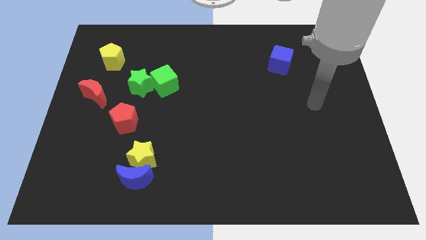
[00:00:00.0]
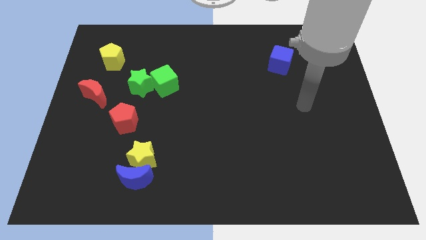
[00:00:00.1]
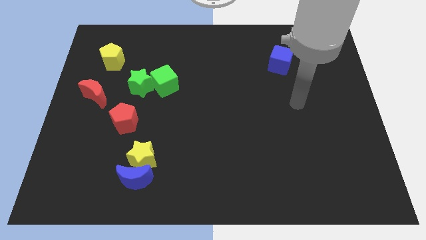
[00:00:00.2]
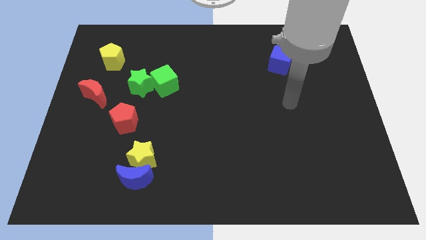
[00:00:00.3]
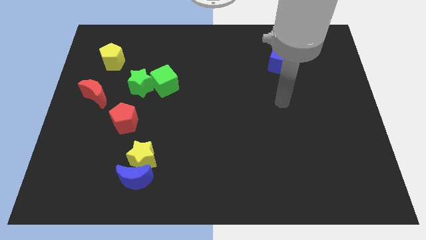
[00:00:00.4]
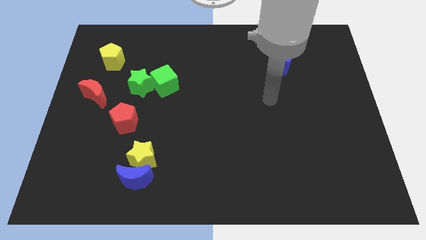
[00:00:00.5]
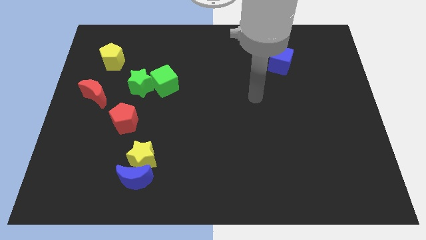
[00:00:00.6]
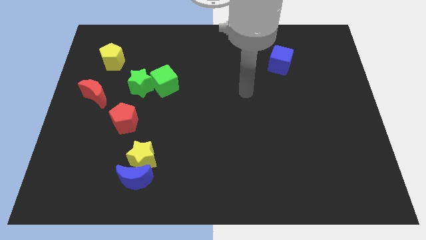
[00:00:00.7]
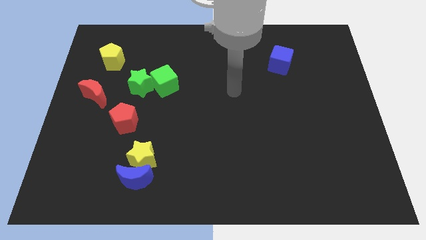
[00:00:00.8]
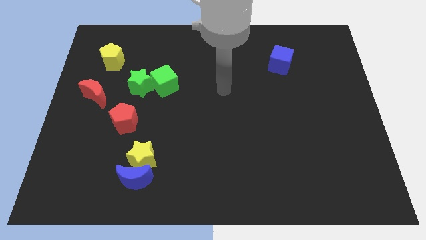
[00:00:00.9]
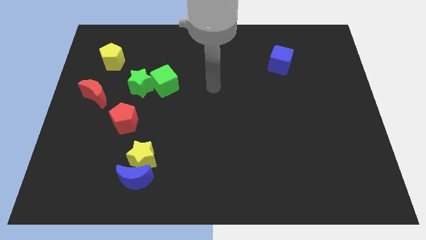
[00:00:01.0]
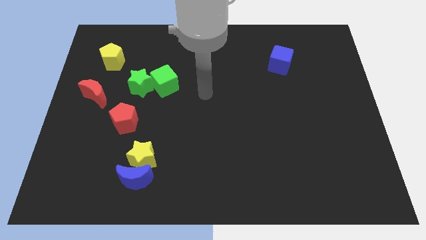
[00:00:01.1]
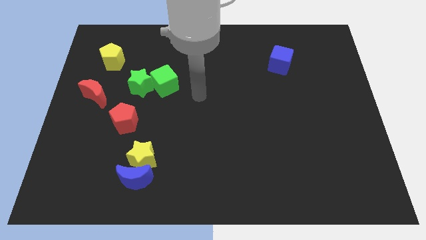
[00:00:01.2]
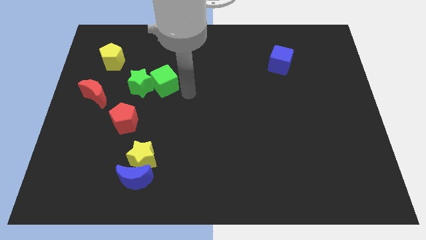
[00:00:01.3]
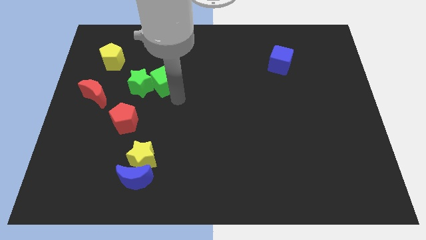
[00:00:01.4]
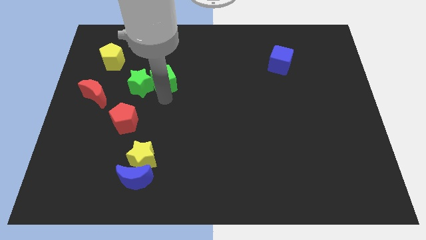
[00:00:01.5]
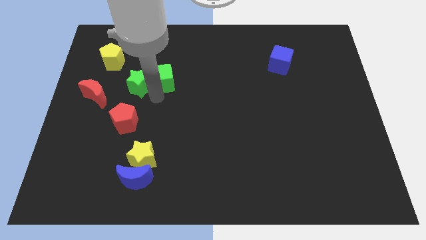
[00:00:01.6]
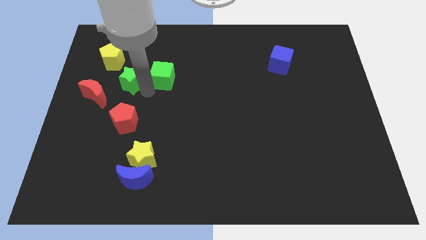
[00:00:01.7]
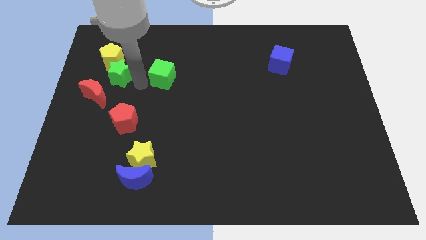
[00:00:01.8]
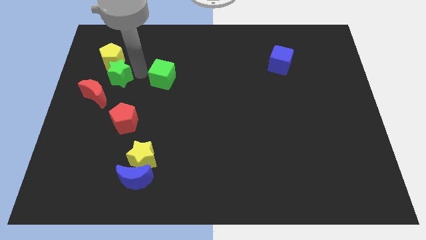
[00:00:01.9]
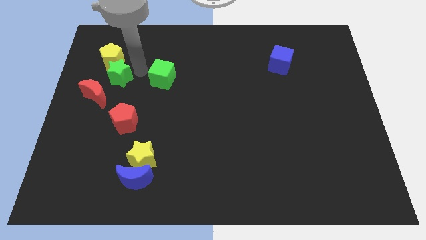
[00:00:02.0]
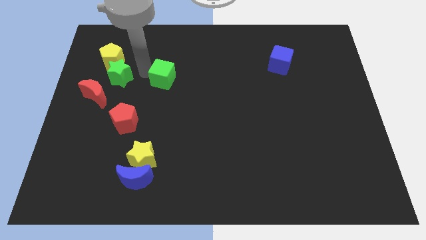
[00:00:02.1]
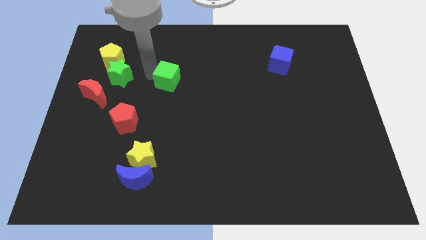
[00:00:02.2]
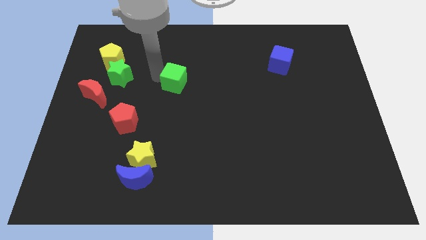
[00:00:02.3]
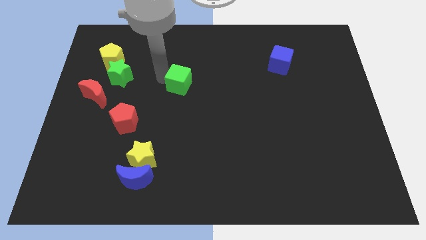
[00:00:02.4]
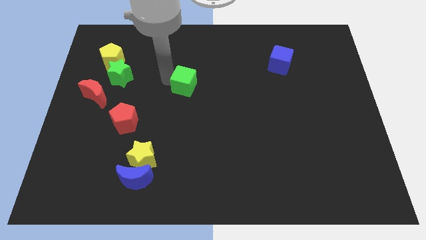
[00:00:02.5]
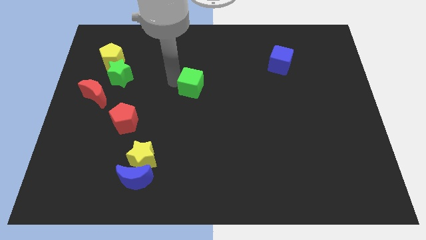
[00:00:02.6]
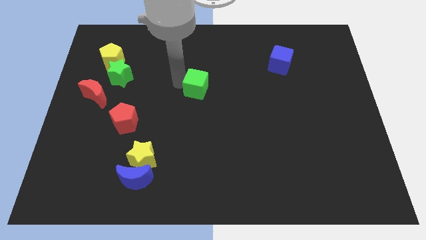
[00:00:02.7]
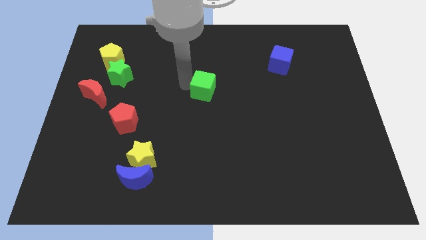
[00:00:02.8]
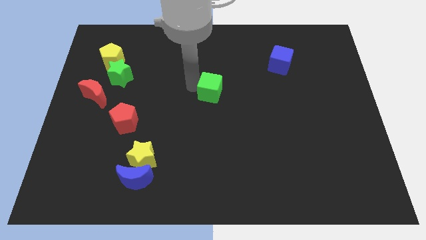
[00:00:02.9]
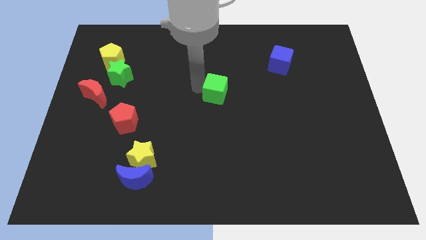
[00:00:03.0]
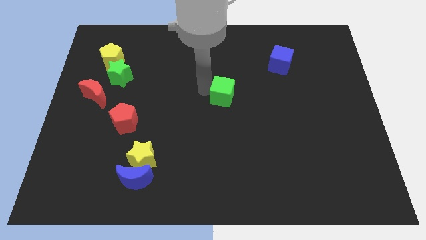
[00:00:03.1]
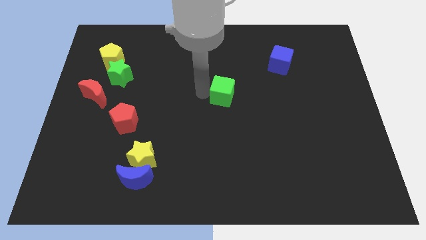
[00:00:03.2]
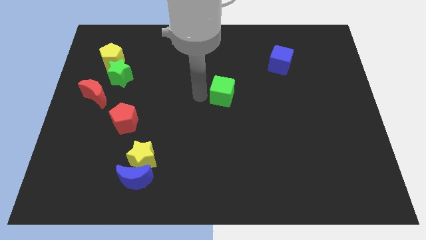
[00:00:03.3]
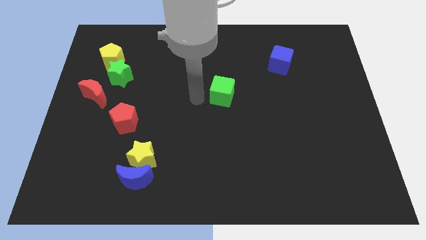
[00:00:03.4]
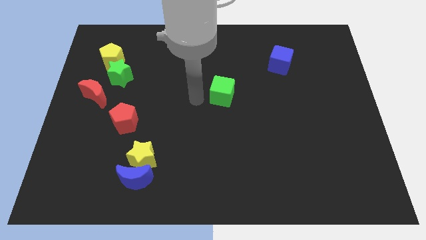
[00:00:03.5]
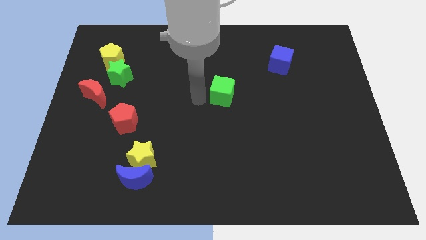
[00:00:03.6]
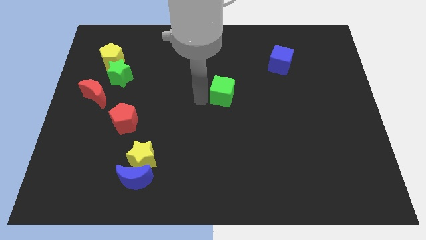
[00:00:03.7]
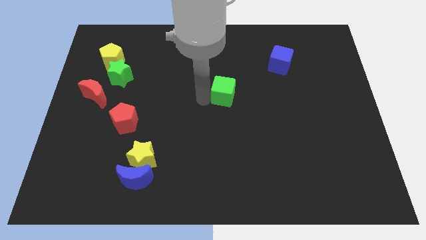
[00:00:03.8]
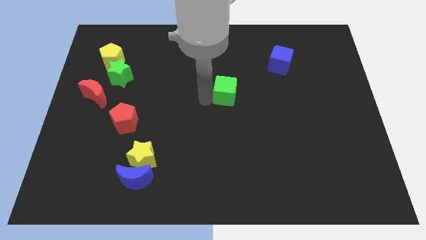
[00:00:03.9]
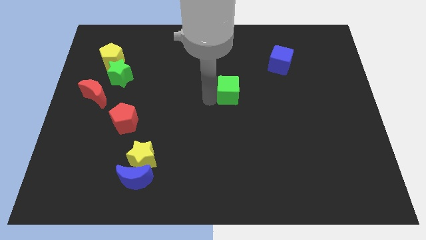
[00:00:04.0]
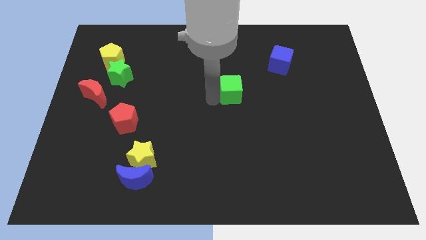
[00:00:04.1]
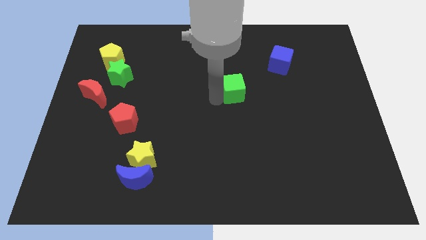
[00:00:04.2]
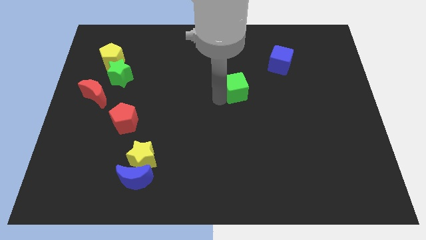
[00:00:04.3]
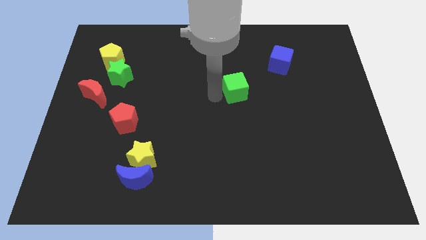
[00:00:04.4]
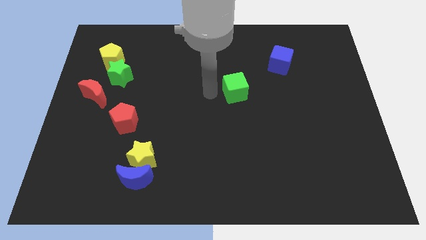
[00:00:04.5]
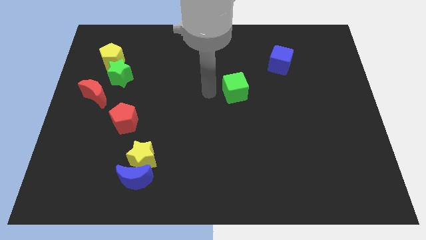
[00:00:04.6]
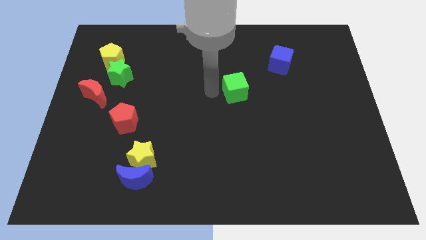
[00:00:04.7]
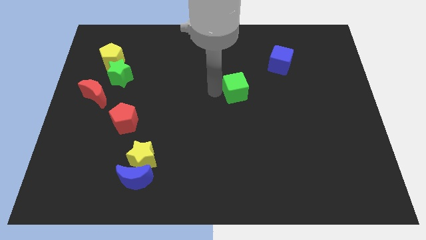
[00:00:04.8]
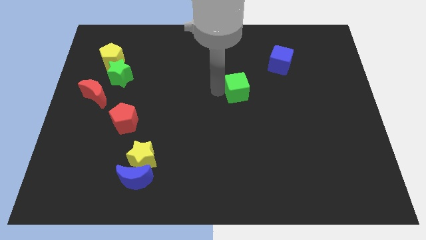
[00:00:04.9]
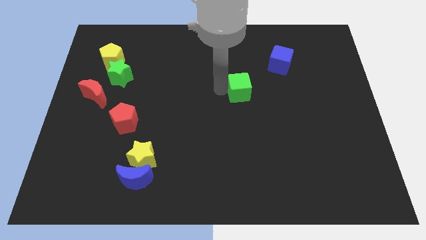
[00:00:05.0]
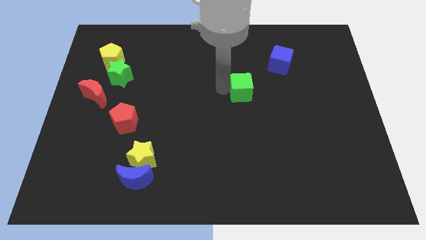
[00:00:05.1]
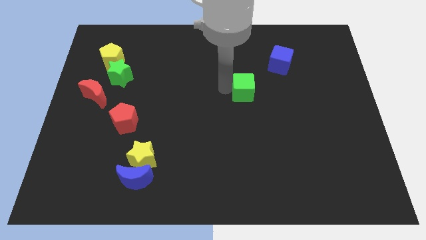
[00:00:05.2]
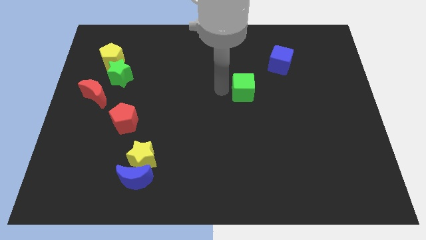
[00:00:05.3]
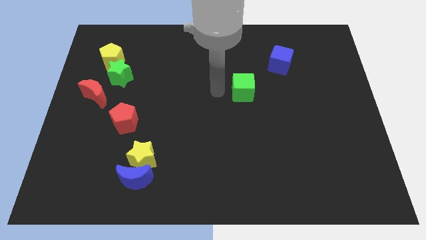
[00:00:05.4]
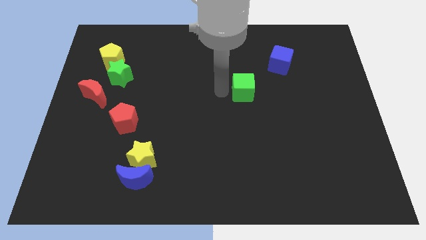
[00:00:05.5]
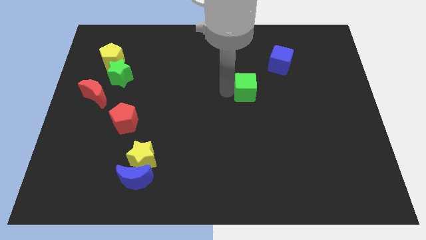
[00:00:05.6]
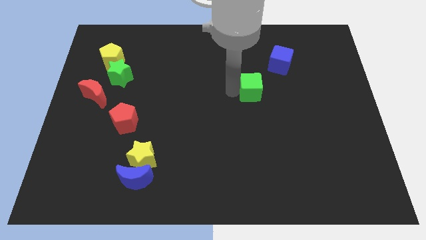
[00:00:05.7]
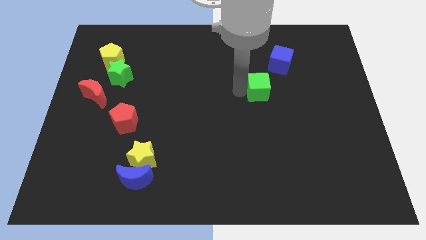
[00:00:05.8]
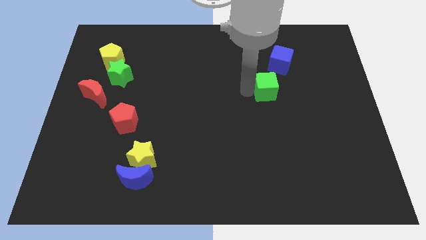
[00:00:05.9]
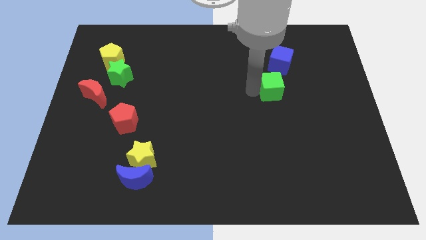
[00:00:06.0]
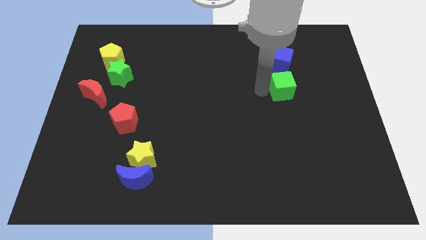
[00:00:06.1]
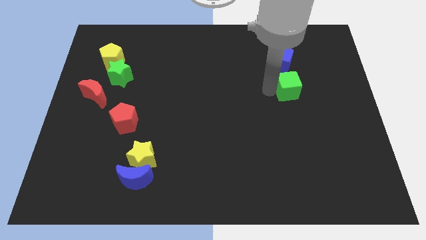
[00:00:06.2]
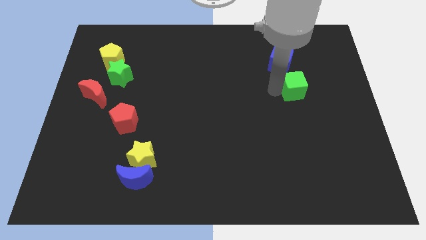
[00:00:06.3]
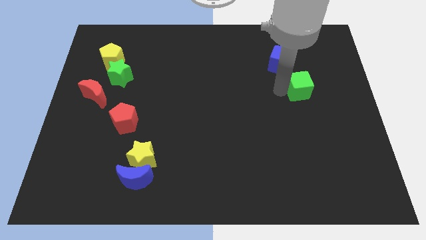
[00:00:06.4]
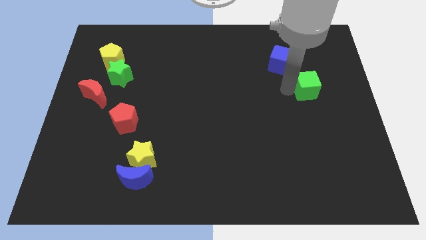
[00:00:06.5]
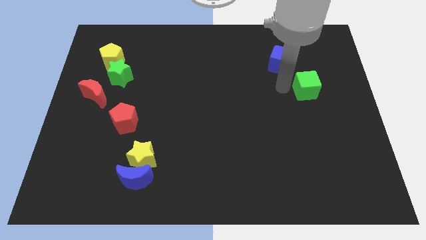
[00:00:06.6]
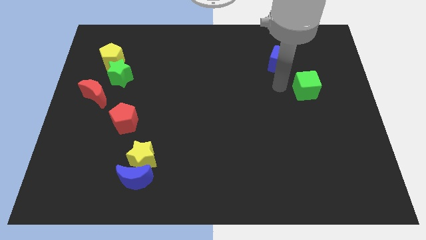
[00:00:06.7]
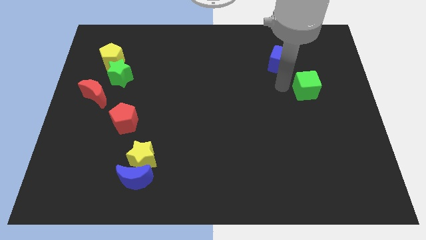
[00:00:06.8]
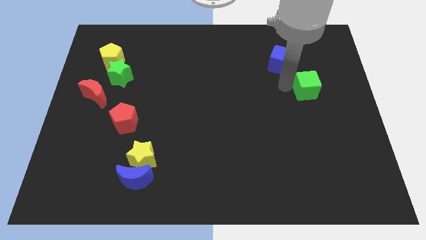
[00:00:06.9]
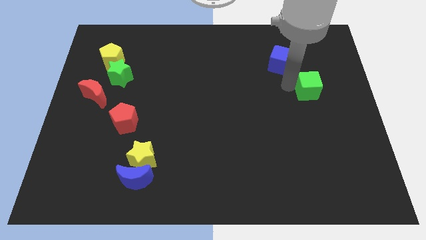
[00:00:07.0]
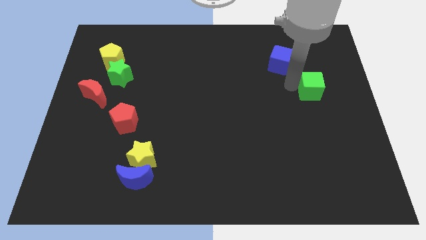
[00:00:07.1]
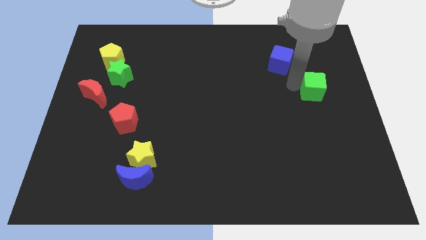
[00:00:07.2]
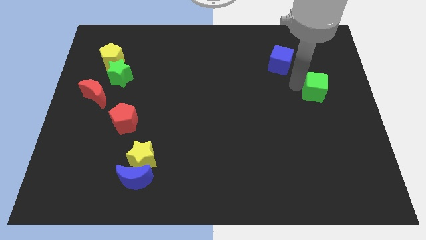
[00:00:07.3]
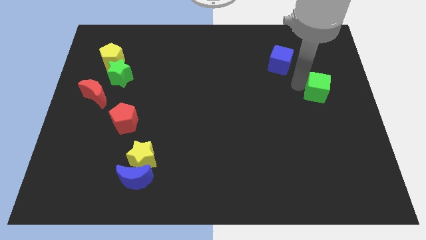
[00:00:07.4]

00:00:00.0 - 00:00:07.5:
slide the green cube to the right side of the board
